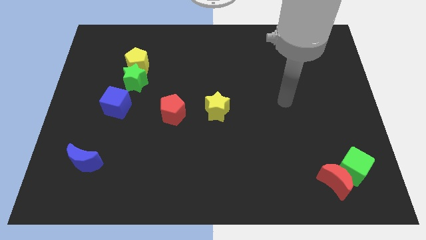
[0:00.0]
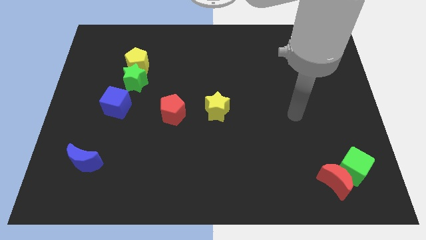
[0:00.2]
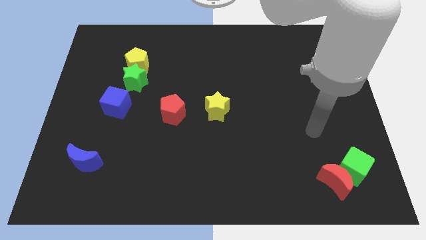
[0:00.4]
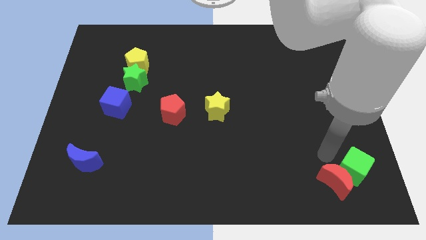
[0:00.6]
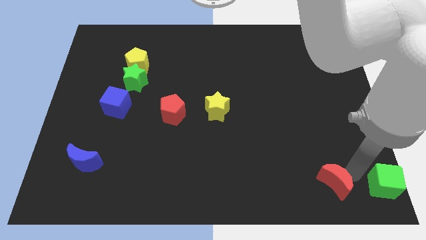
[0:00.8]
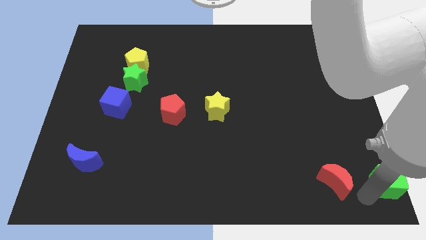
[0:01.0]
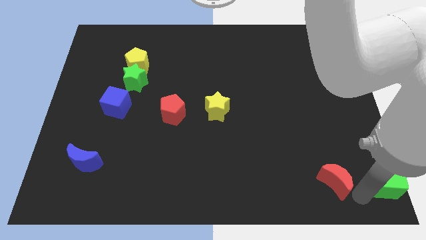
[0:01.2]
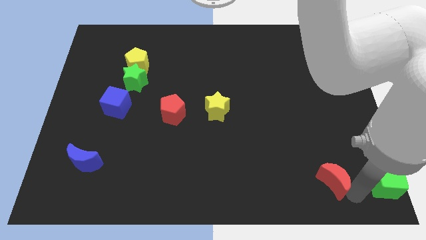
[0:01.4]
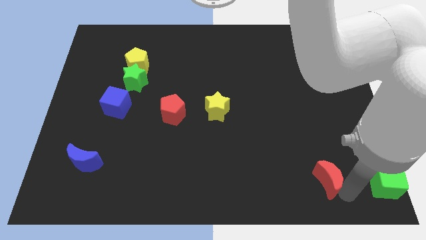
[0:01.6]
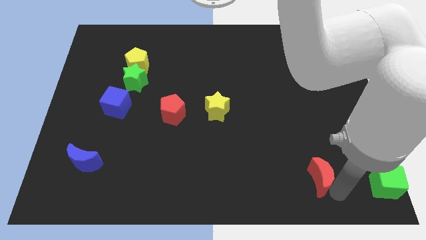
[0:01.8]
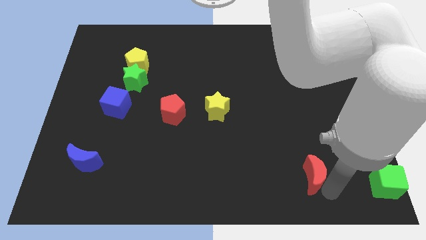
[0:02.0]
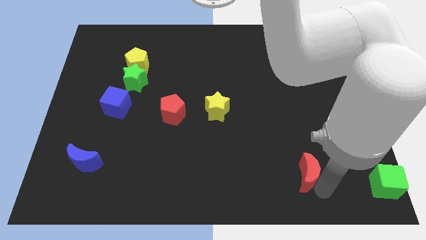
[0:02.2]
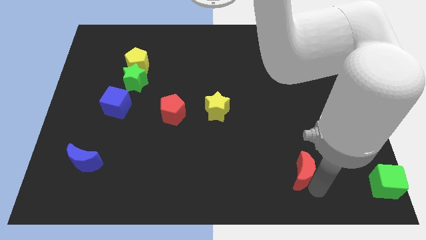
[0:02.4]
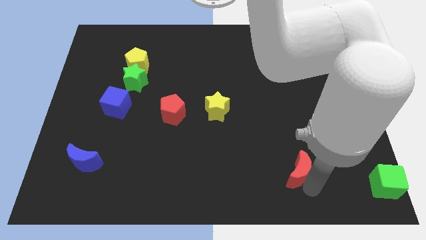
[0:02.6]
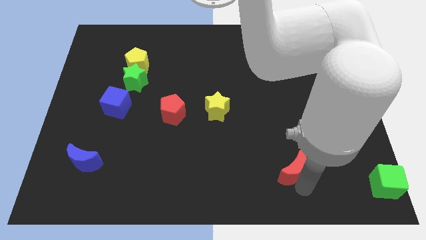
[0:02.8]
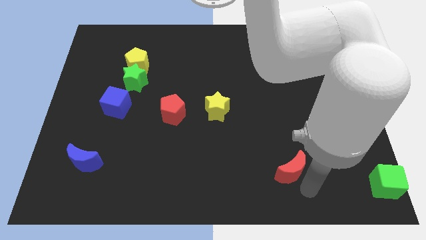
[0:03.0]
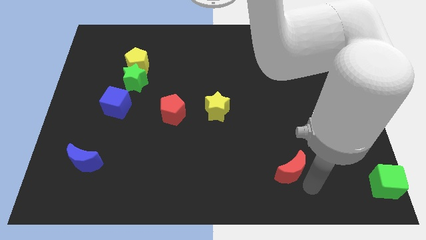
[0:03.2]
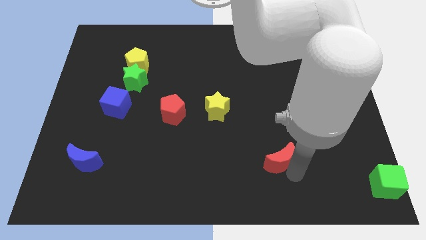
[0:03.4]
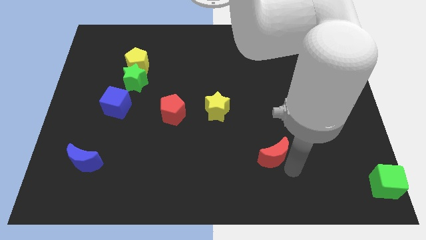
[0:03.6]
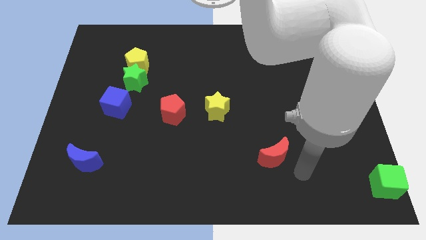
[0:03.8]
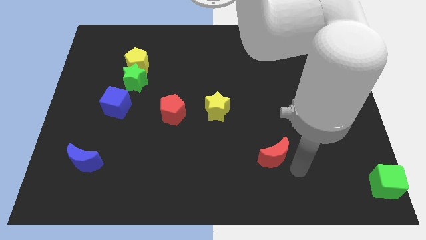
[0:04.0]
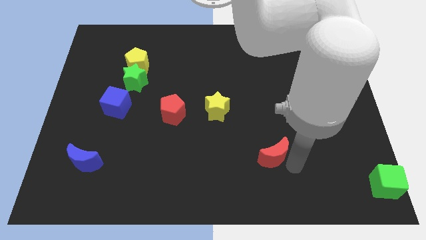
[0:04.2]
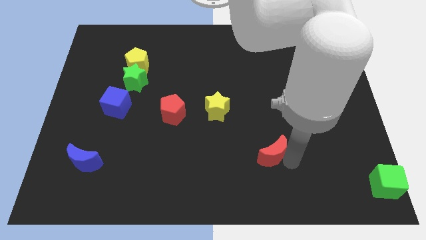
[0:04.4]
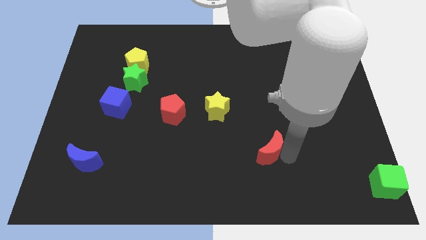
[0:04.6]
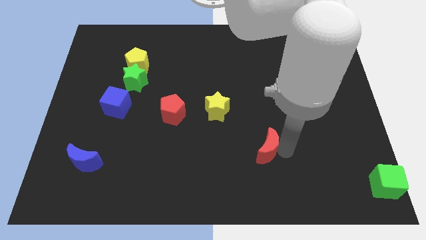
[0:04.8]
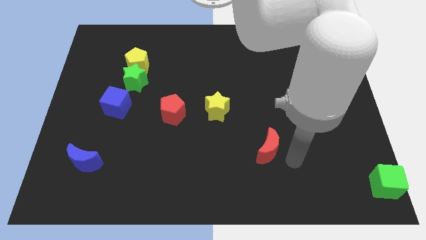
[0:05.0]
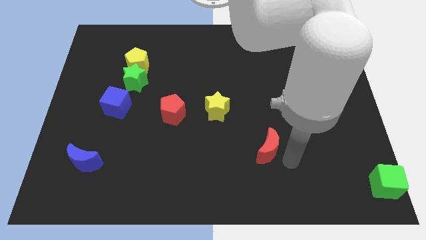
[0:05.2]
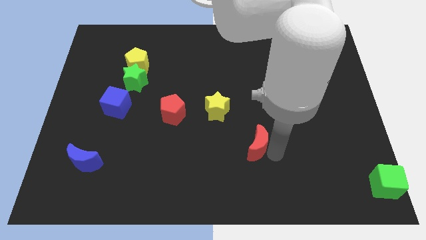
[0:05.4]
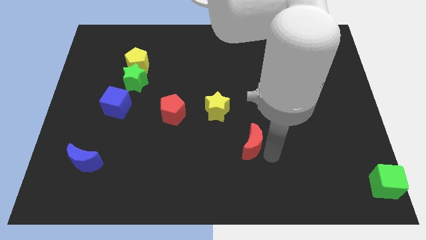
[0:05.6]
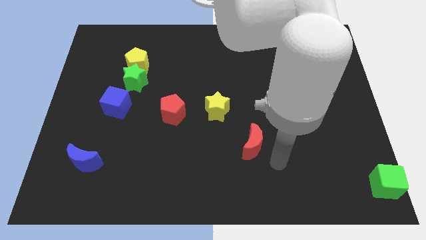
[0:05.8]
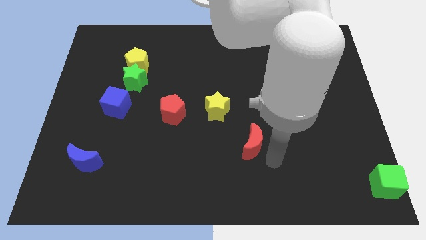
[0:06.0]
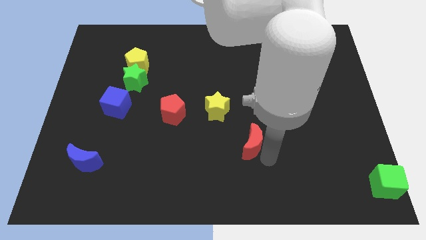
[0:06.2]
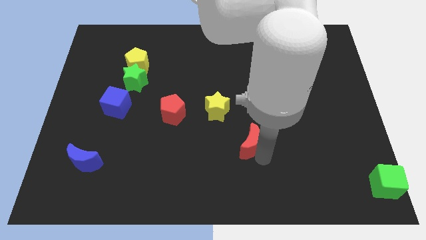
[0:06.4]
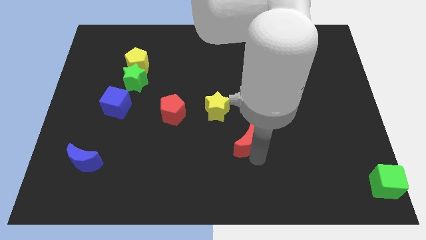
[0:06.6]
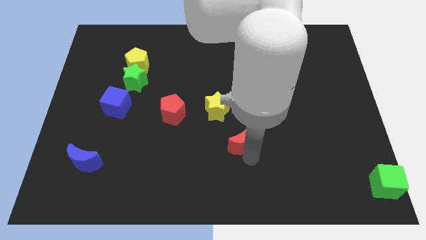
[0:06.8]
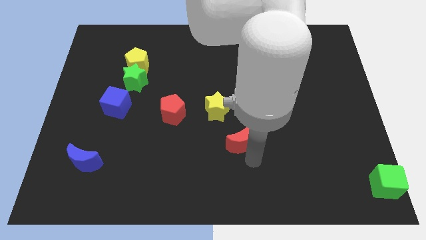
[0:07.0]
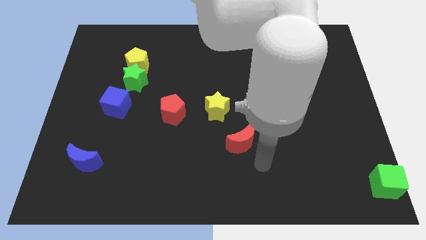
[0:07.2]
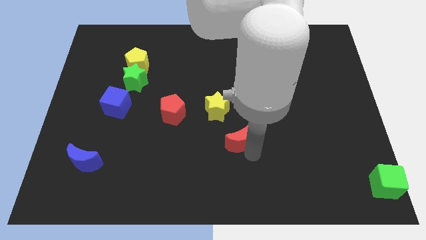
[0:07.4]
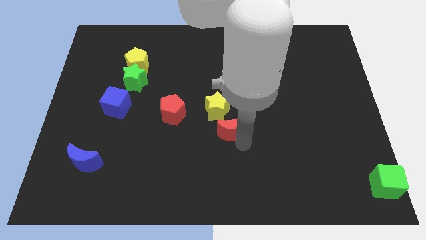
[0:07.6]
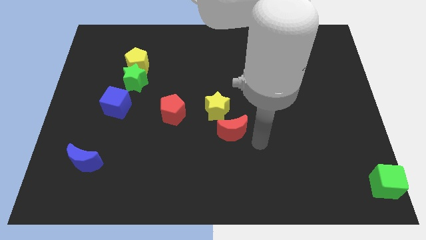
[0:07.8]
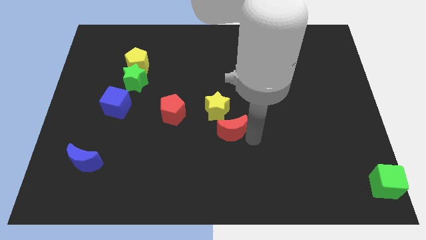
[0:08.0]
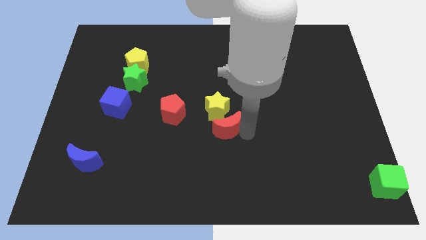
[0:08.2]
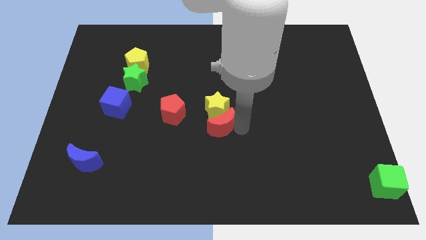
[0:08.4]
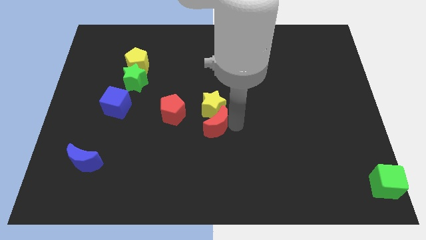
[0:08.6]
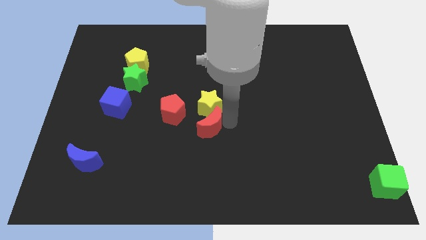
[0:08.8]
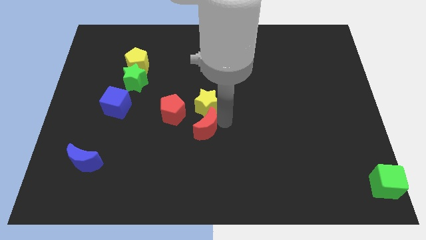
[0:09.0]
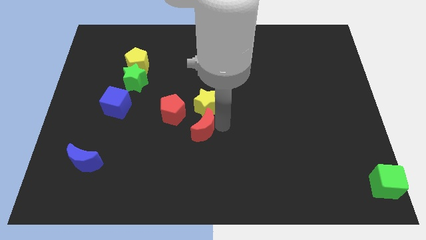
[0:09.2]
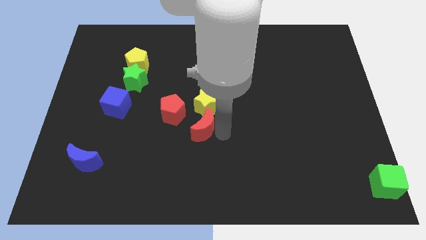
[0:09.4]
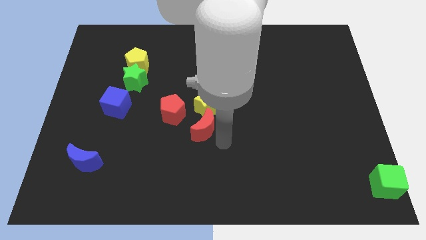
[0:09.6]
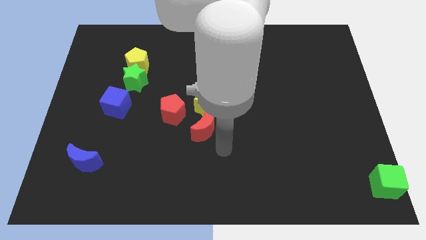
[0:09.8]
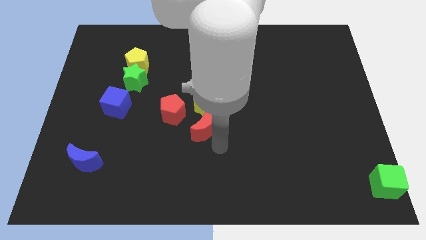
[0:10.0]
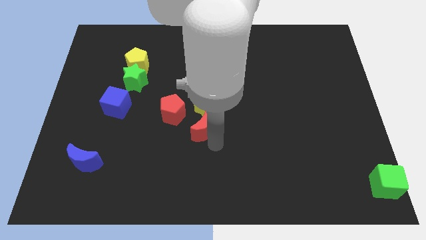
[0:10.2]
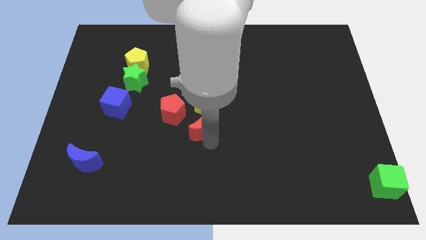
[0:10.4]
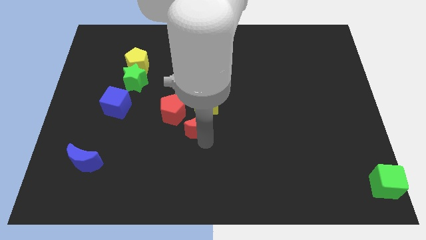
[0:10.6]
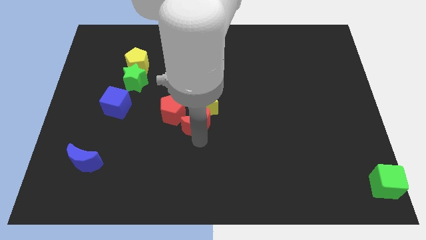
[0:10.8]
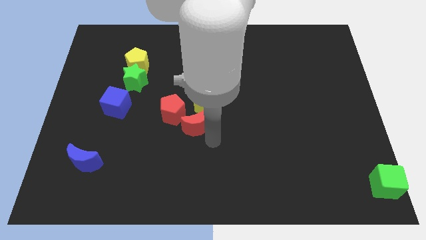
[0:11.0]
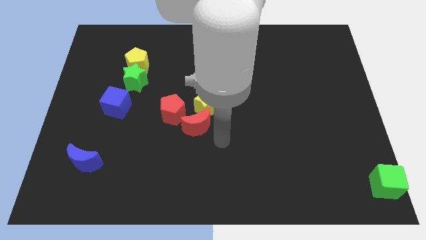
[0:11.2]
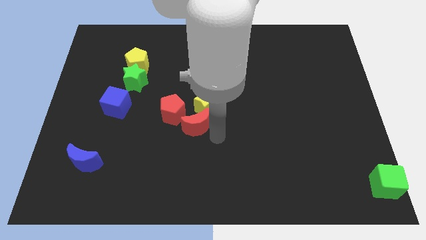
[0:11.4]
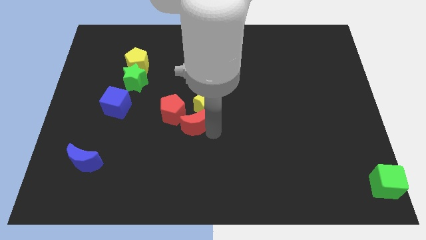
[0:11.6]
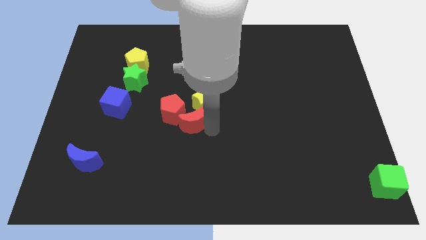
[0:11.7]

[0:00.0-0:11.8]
put the red moon to the red pentagon

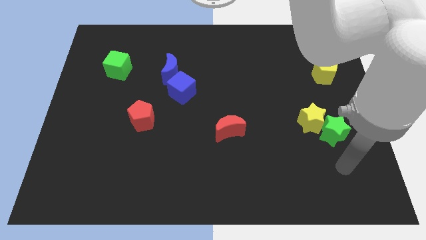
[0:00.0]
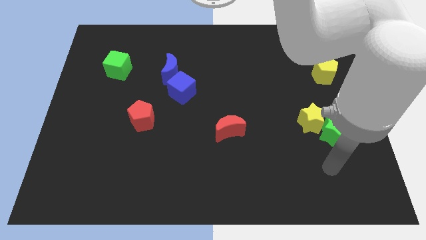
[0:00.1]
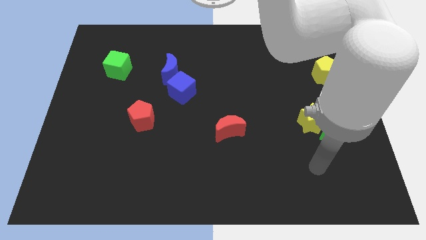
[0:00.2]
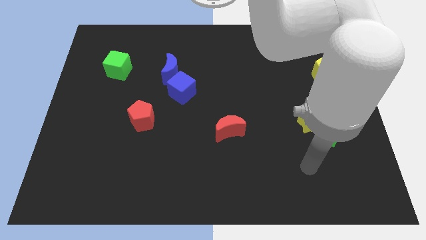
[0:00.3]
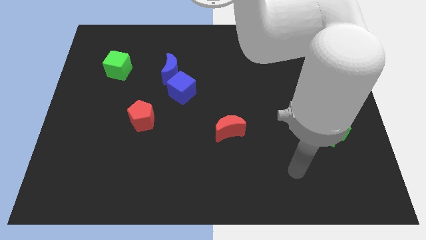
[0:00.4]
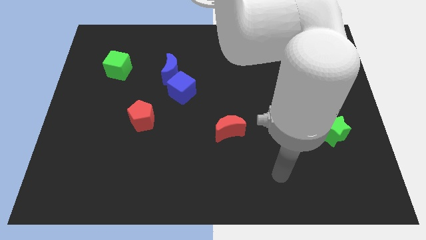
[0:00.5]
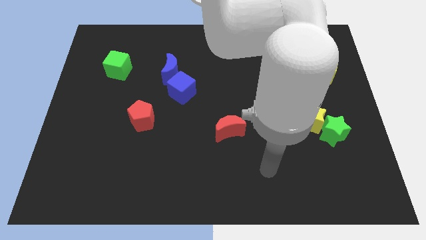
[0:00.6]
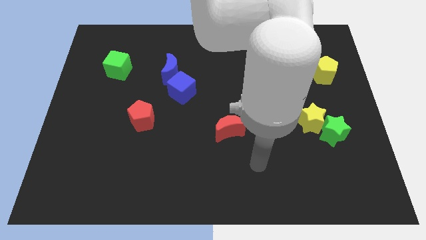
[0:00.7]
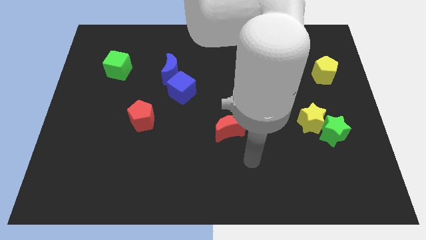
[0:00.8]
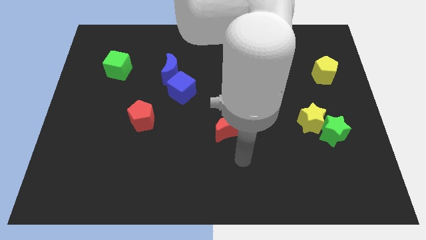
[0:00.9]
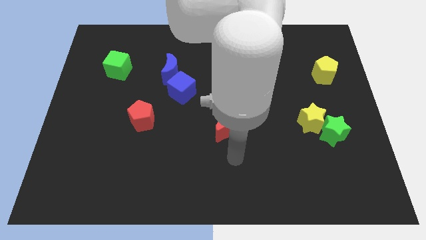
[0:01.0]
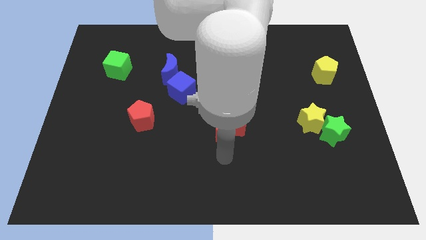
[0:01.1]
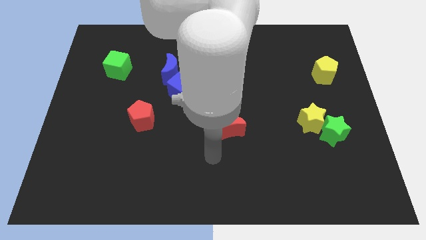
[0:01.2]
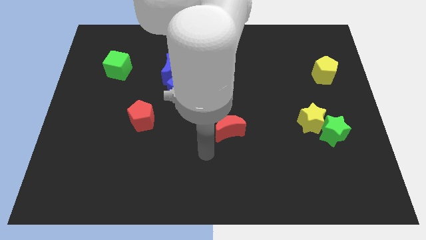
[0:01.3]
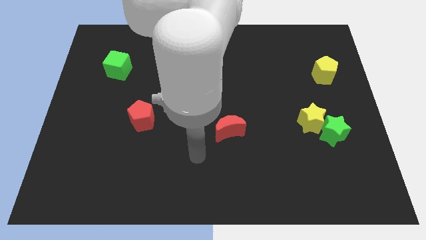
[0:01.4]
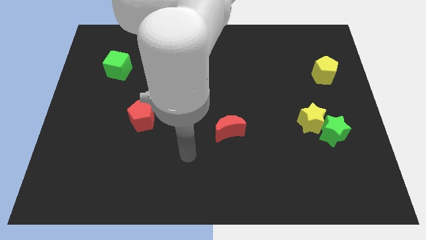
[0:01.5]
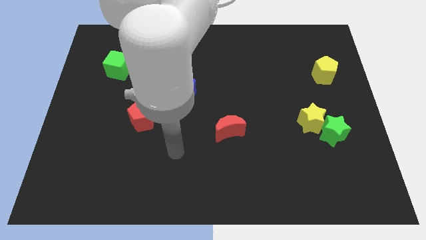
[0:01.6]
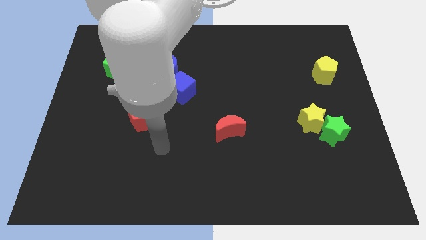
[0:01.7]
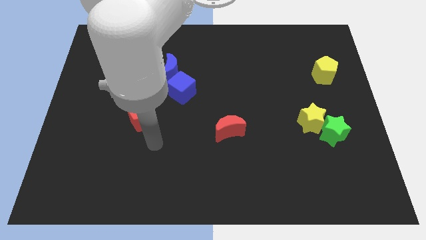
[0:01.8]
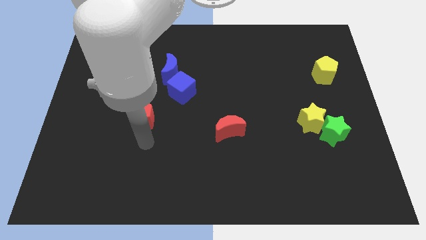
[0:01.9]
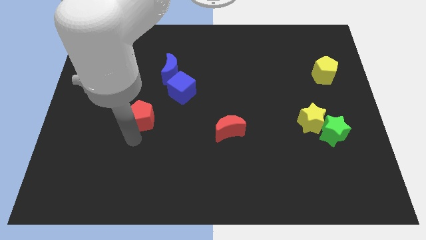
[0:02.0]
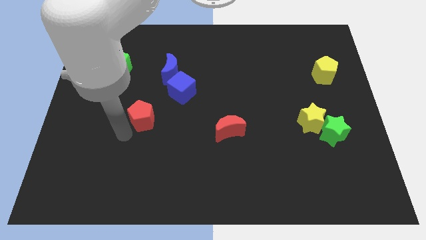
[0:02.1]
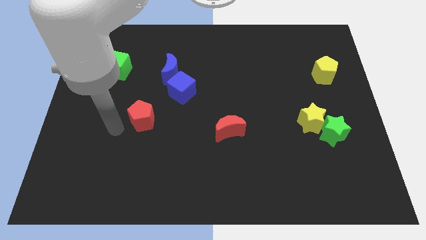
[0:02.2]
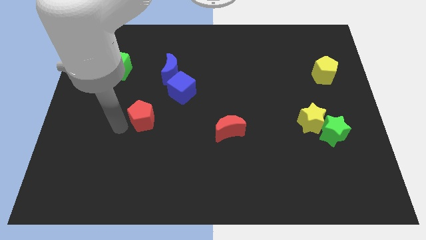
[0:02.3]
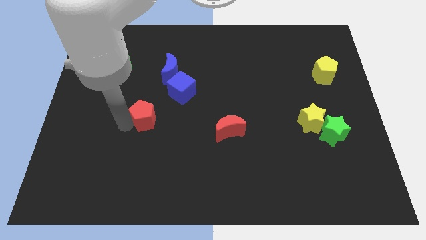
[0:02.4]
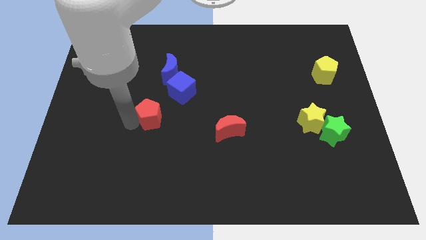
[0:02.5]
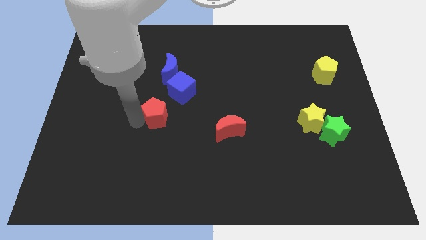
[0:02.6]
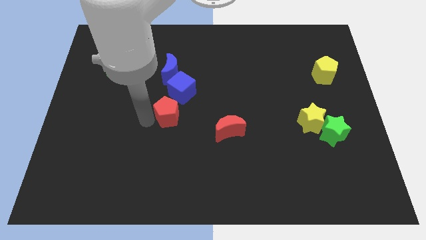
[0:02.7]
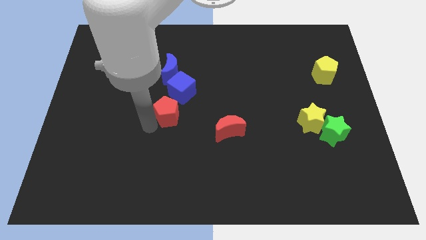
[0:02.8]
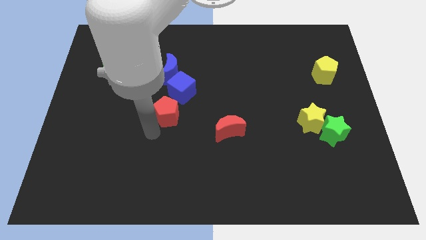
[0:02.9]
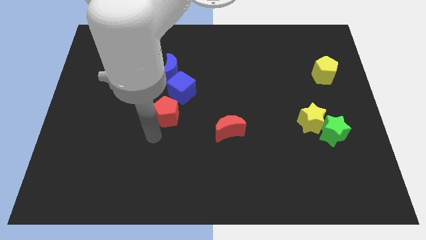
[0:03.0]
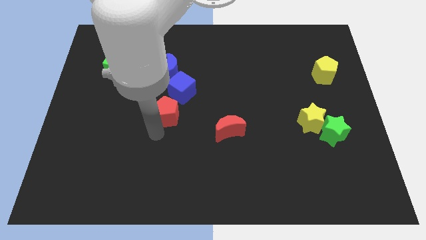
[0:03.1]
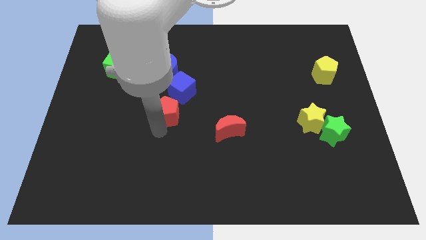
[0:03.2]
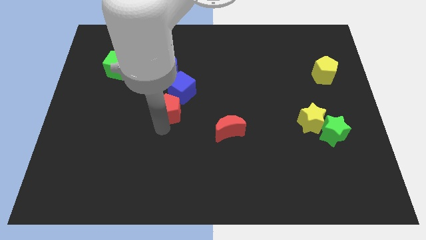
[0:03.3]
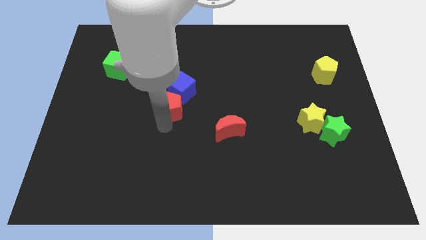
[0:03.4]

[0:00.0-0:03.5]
put the red pentagon to the blue cube
